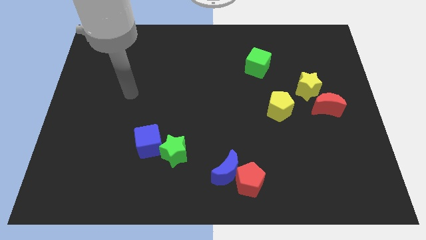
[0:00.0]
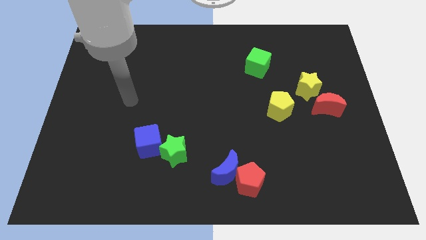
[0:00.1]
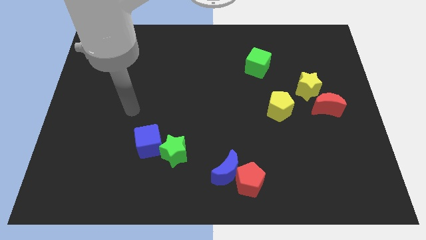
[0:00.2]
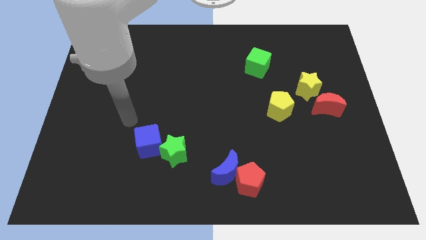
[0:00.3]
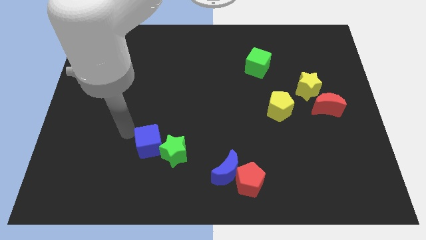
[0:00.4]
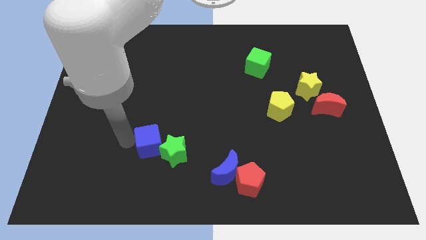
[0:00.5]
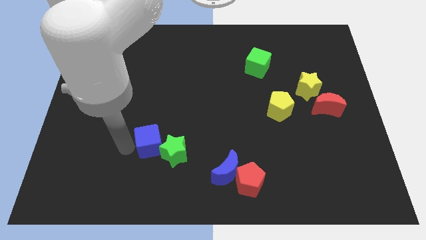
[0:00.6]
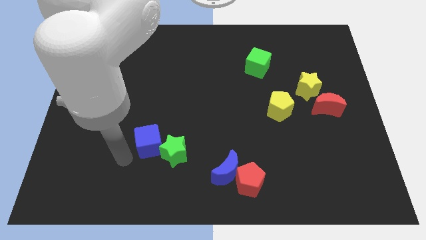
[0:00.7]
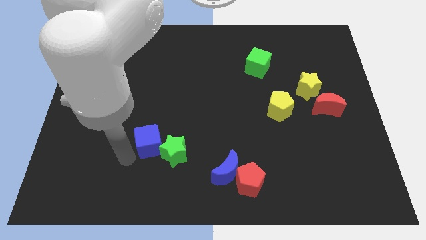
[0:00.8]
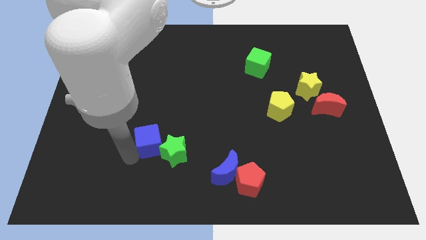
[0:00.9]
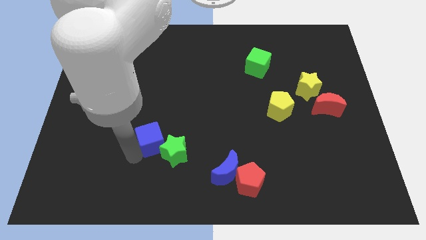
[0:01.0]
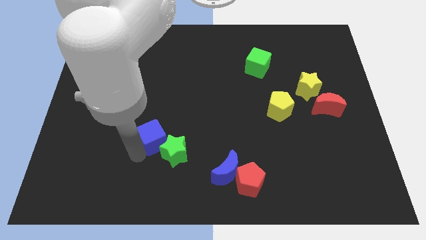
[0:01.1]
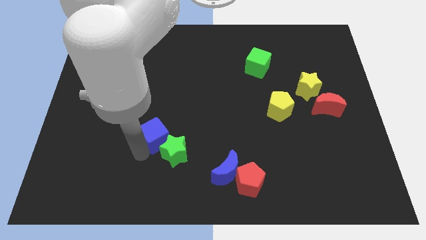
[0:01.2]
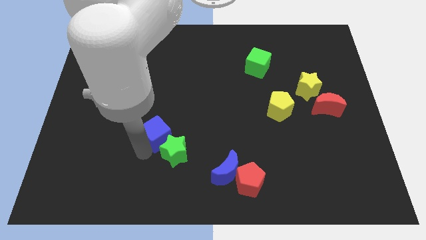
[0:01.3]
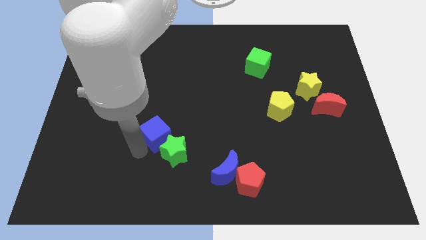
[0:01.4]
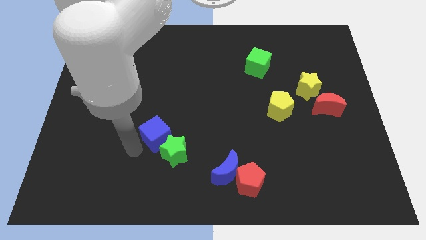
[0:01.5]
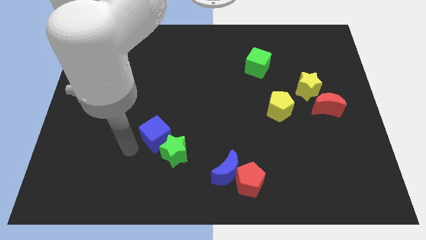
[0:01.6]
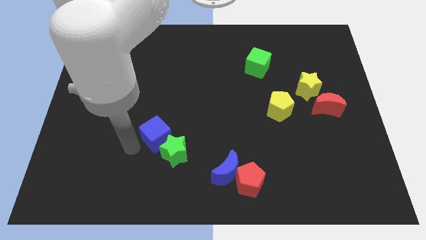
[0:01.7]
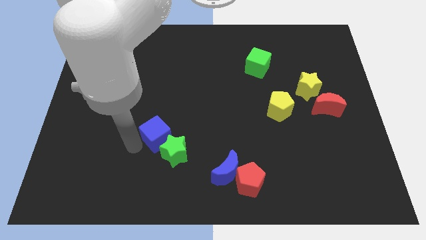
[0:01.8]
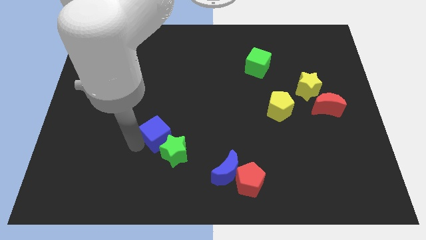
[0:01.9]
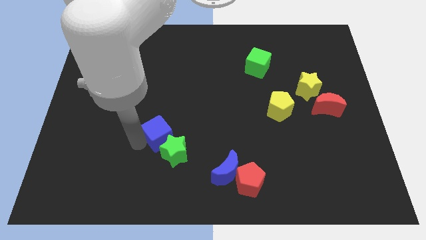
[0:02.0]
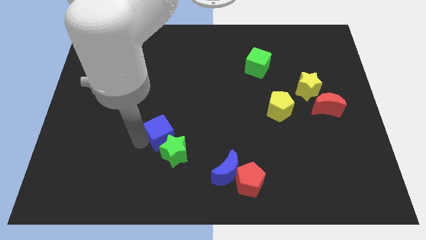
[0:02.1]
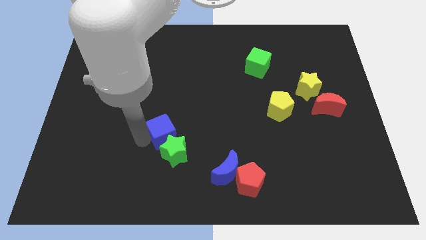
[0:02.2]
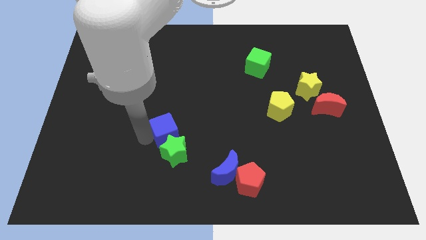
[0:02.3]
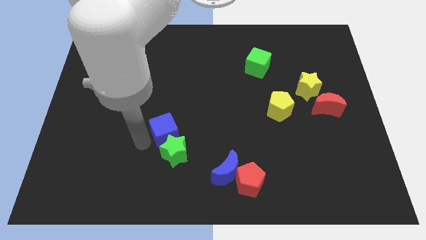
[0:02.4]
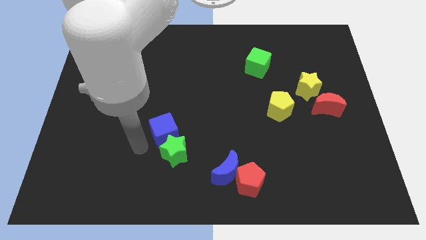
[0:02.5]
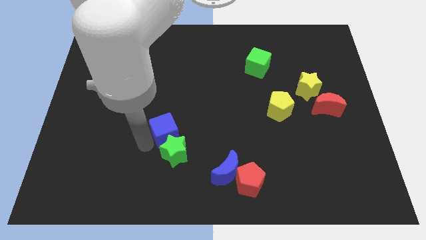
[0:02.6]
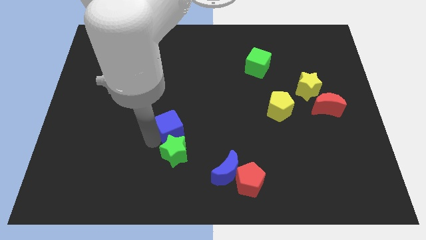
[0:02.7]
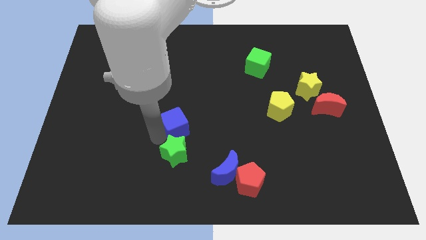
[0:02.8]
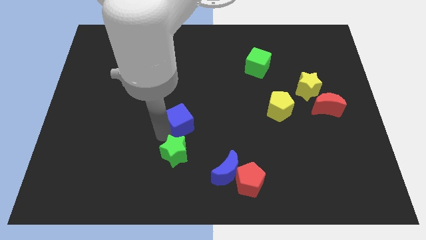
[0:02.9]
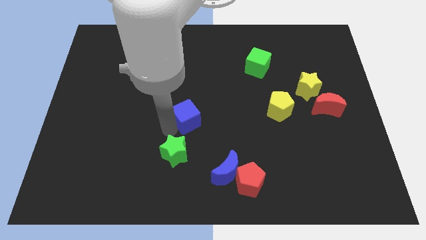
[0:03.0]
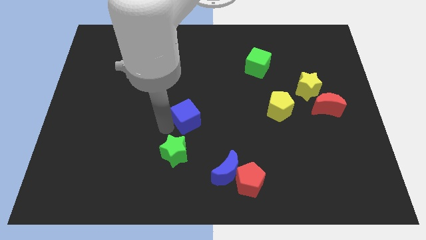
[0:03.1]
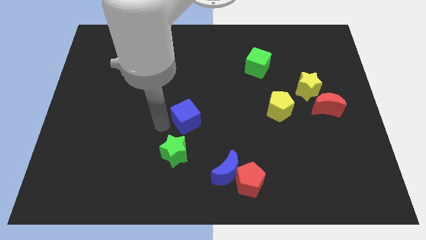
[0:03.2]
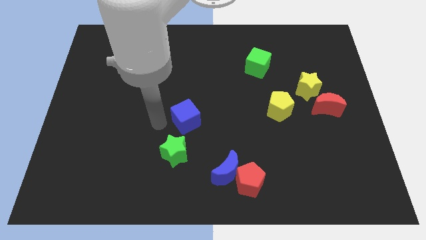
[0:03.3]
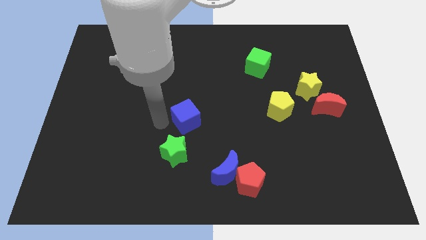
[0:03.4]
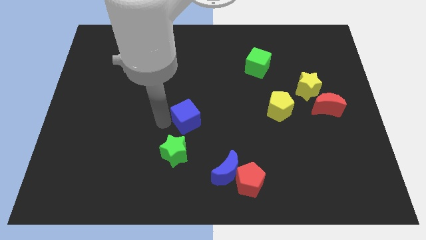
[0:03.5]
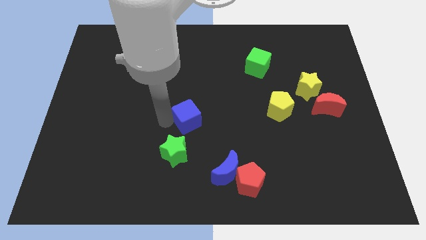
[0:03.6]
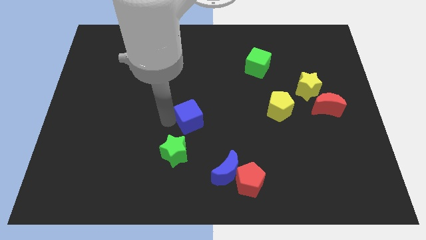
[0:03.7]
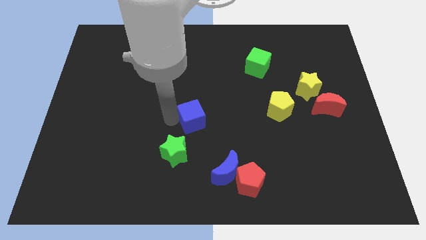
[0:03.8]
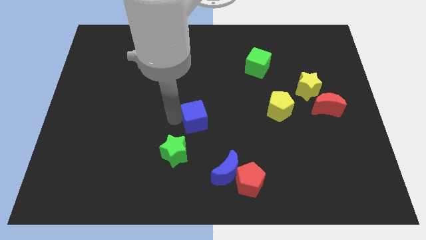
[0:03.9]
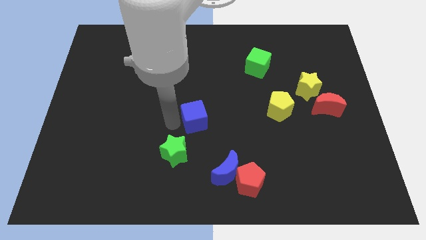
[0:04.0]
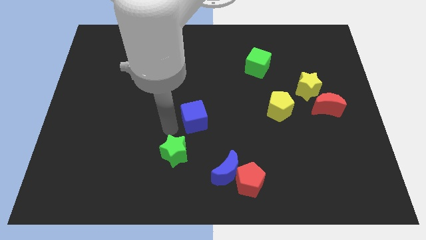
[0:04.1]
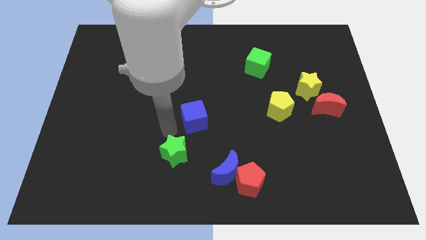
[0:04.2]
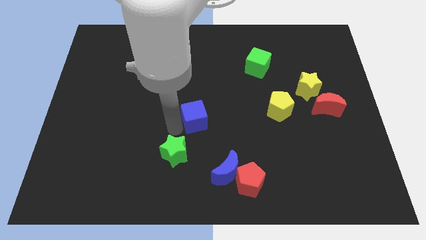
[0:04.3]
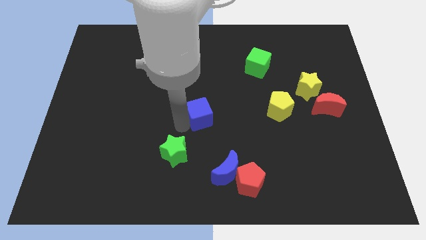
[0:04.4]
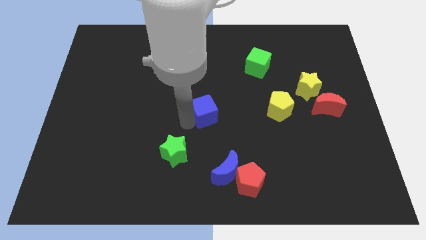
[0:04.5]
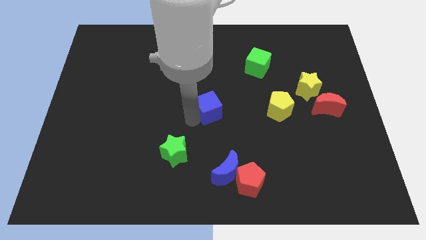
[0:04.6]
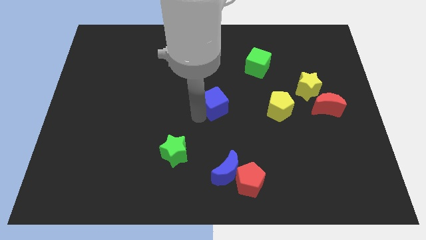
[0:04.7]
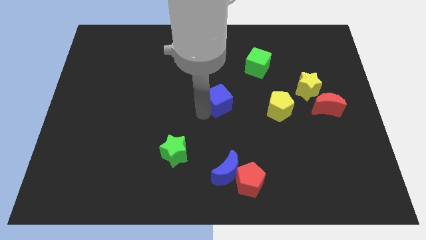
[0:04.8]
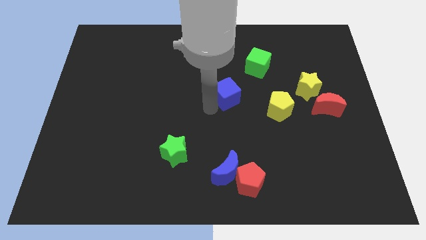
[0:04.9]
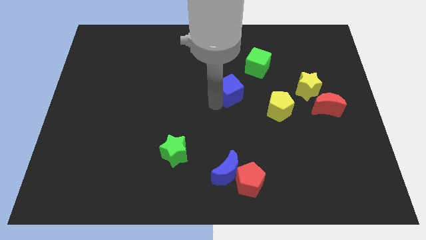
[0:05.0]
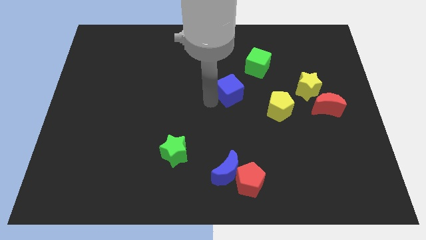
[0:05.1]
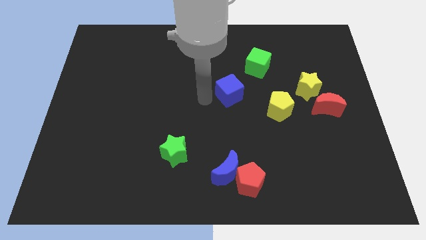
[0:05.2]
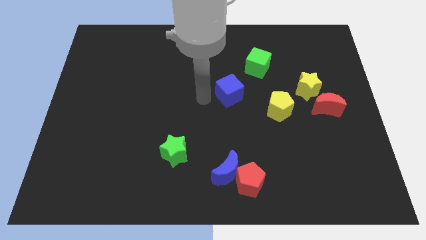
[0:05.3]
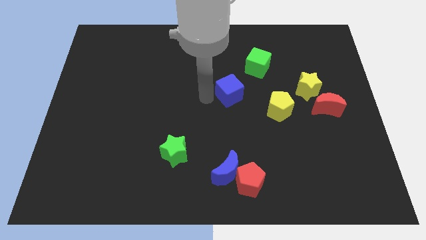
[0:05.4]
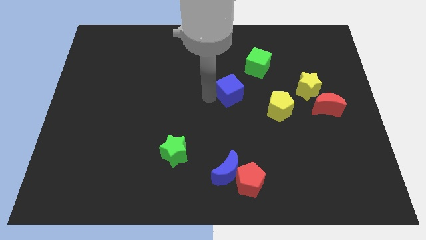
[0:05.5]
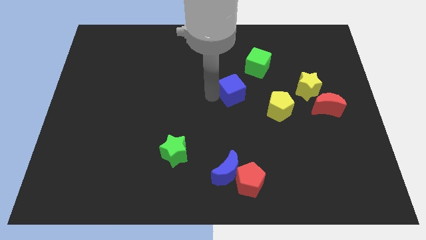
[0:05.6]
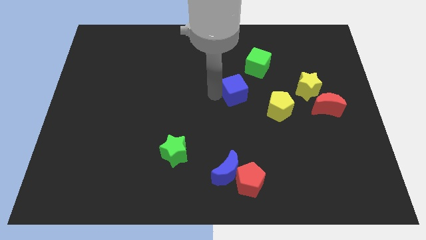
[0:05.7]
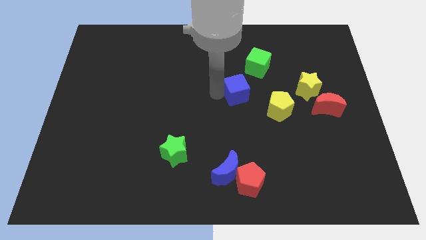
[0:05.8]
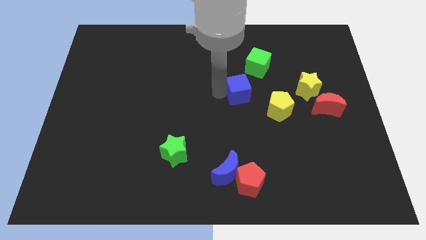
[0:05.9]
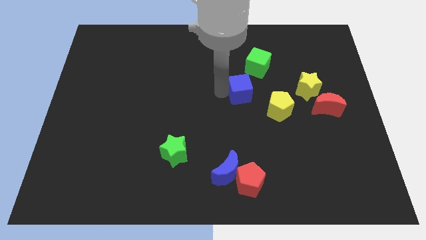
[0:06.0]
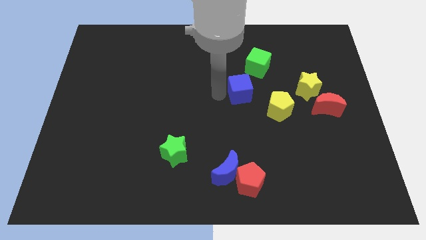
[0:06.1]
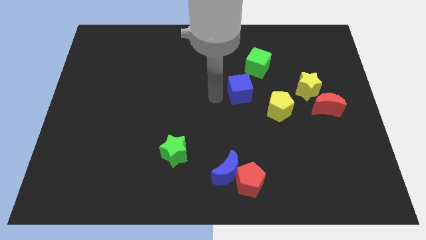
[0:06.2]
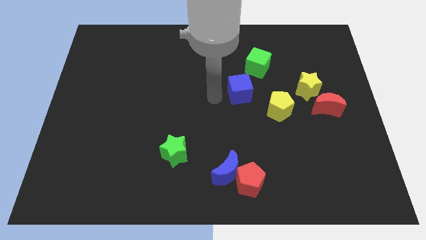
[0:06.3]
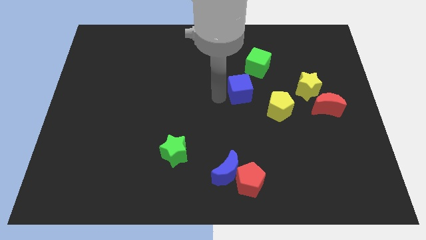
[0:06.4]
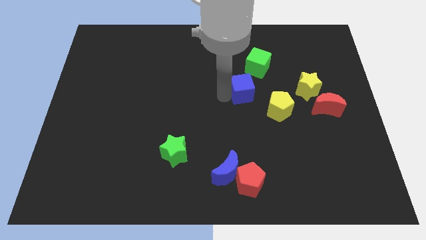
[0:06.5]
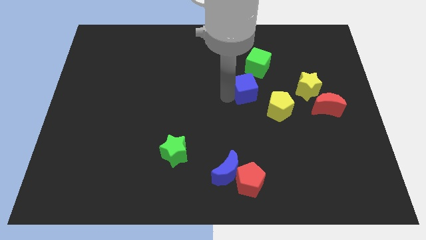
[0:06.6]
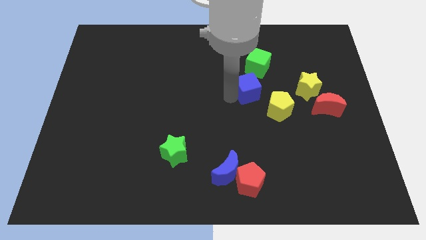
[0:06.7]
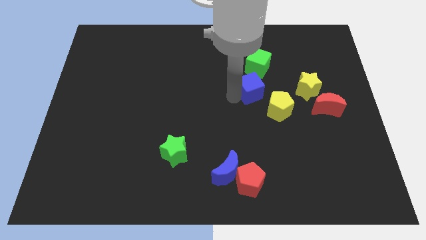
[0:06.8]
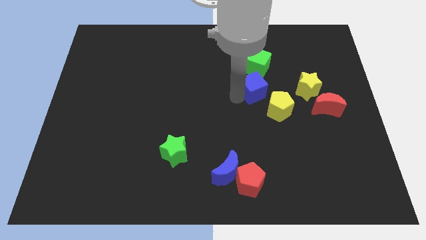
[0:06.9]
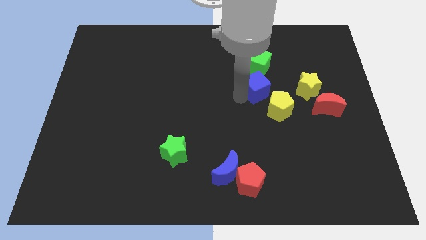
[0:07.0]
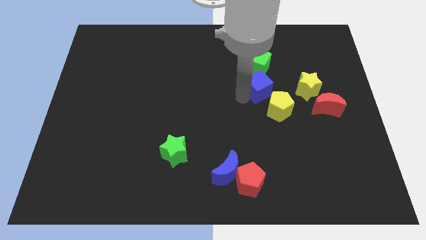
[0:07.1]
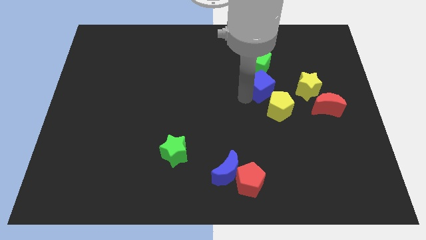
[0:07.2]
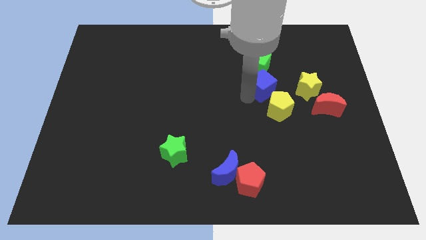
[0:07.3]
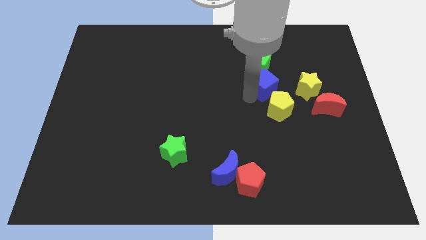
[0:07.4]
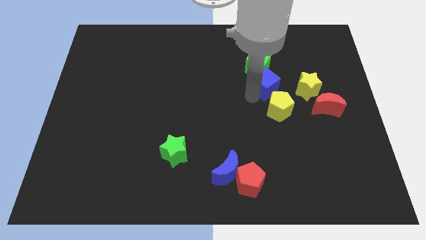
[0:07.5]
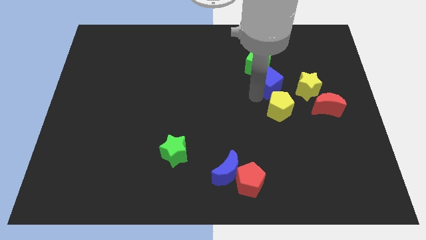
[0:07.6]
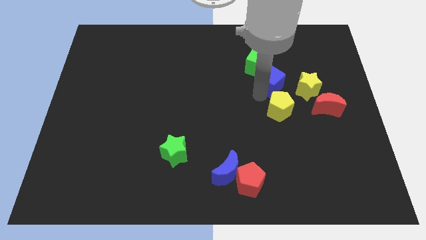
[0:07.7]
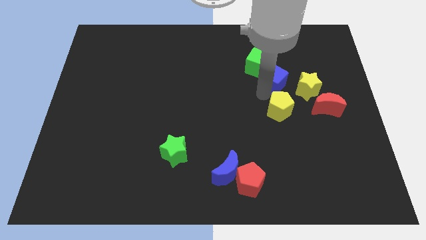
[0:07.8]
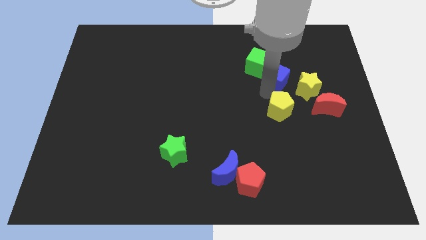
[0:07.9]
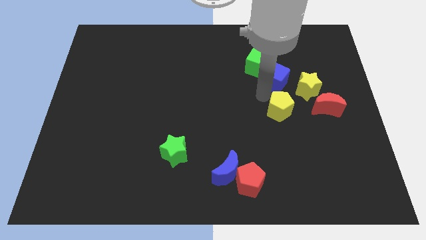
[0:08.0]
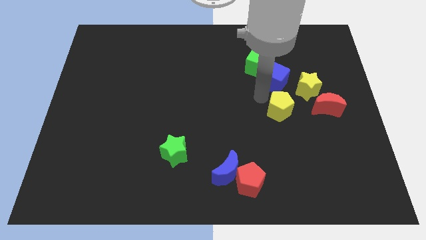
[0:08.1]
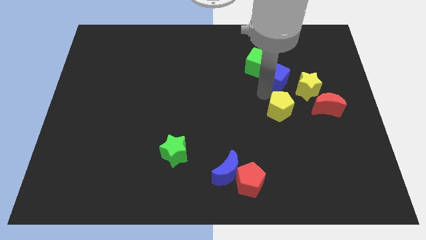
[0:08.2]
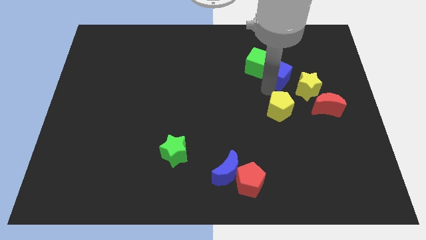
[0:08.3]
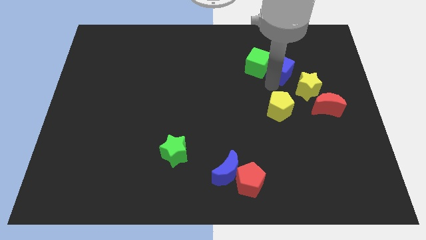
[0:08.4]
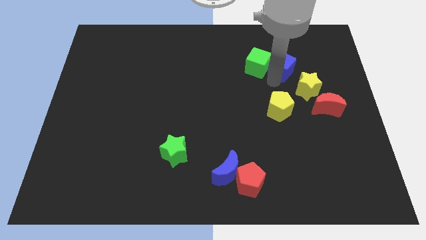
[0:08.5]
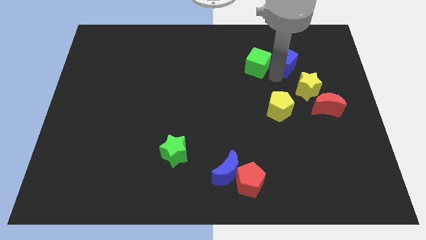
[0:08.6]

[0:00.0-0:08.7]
push the blue cube to the top side of the yellow star
